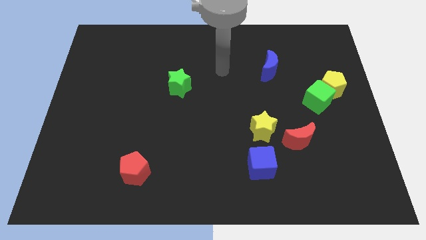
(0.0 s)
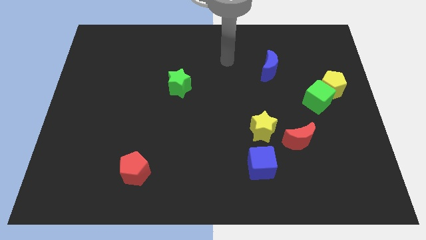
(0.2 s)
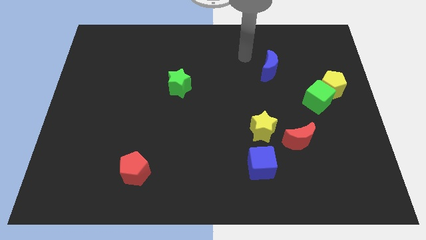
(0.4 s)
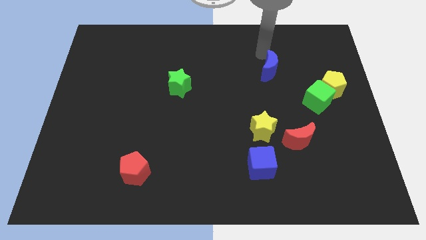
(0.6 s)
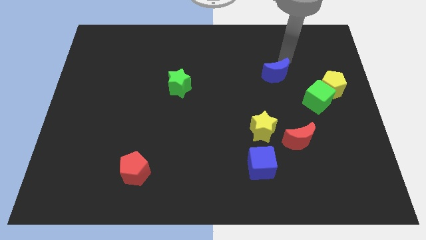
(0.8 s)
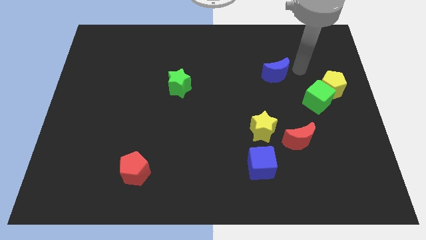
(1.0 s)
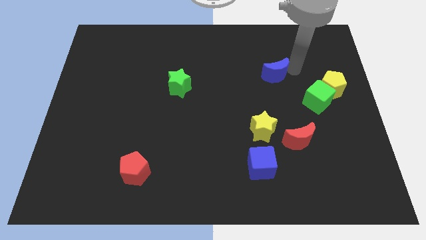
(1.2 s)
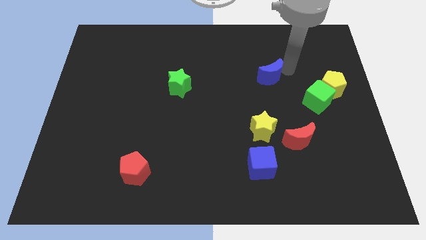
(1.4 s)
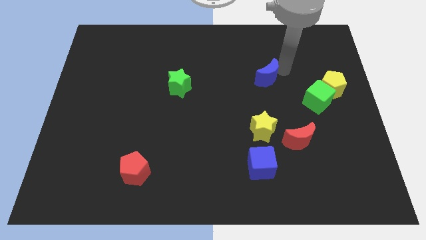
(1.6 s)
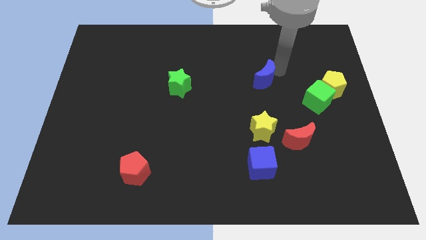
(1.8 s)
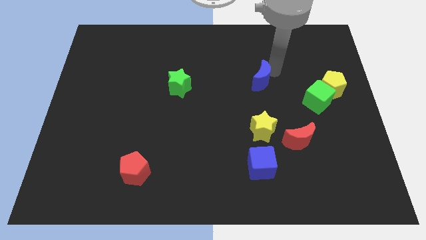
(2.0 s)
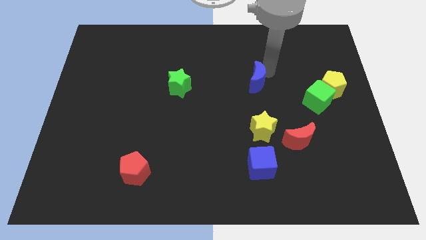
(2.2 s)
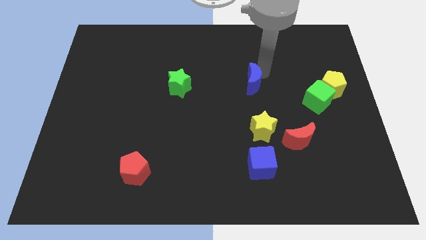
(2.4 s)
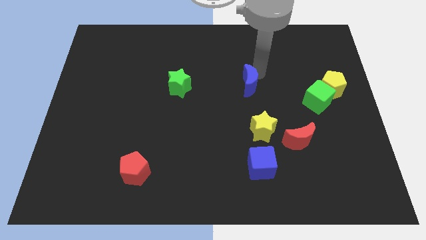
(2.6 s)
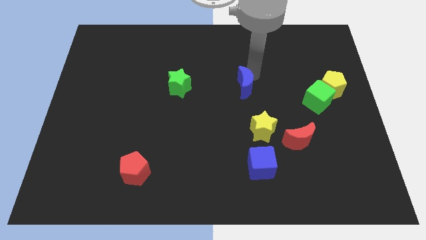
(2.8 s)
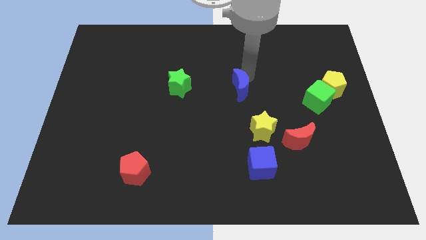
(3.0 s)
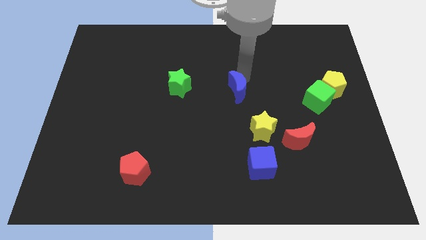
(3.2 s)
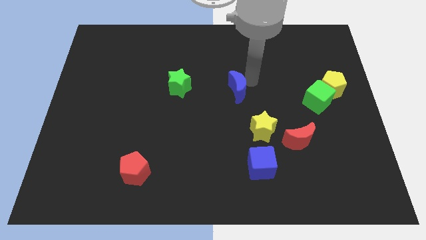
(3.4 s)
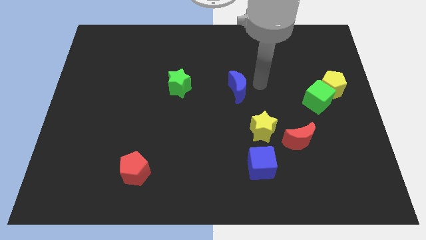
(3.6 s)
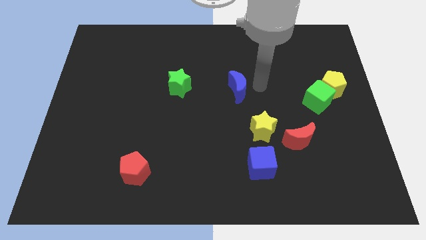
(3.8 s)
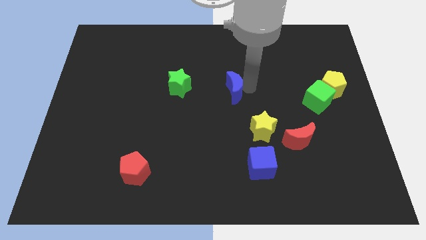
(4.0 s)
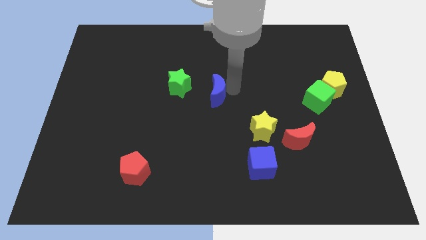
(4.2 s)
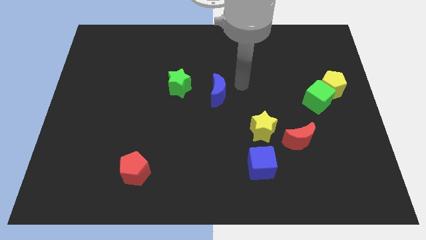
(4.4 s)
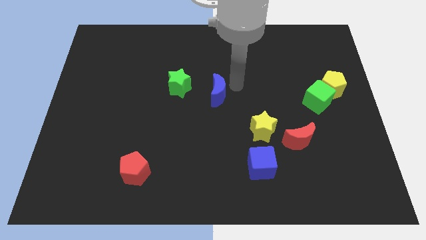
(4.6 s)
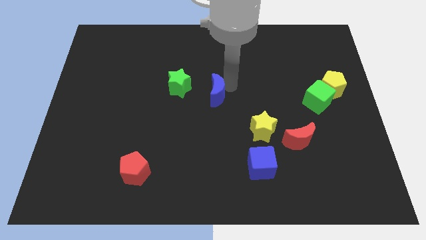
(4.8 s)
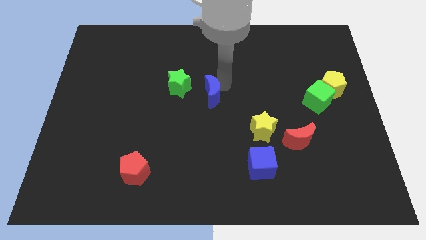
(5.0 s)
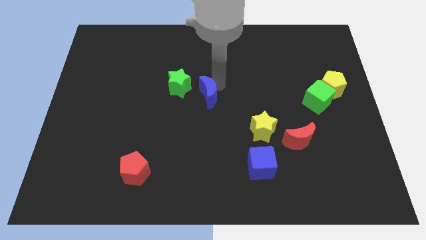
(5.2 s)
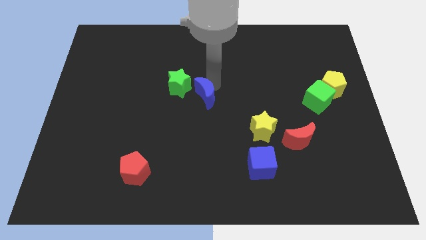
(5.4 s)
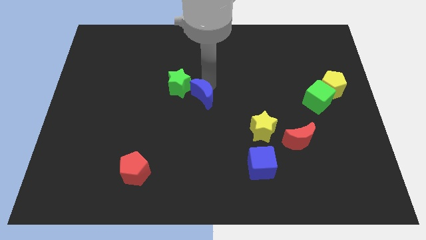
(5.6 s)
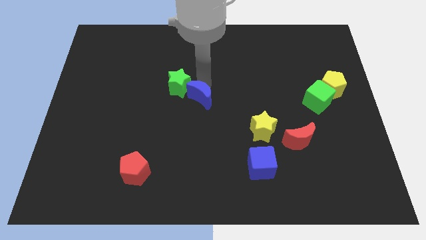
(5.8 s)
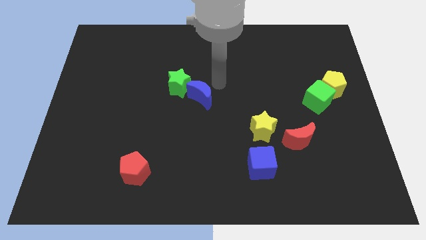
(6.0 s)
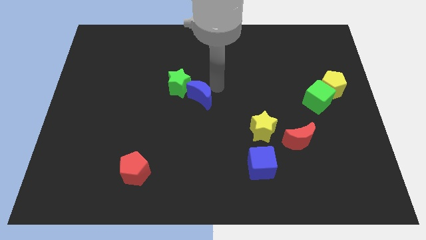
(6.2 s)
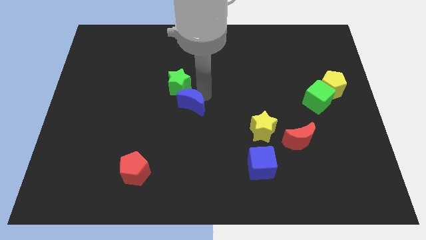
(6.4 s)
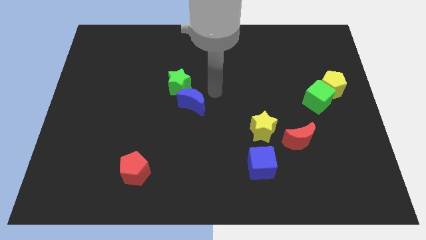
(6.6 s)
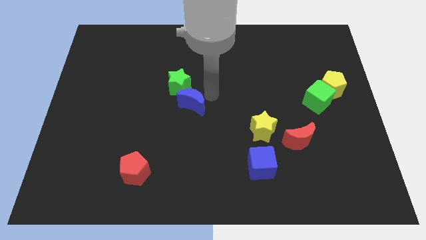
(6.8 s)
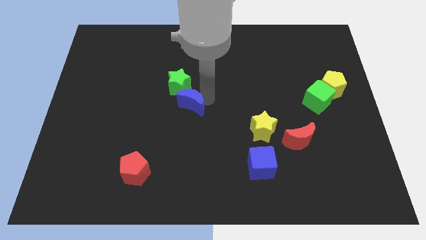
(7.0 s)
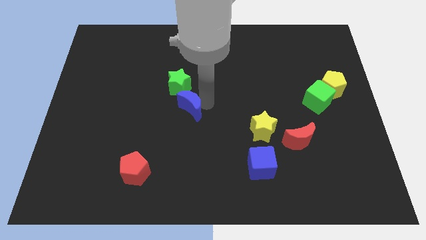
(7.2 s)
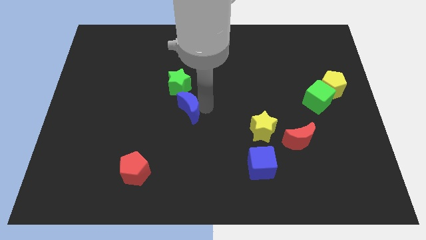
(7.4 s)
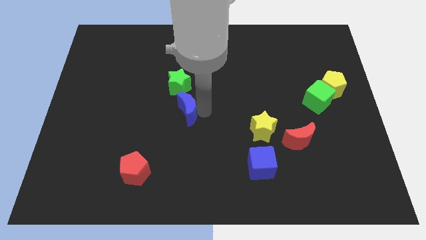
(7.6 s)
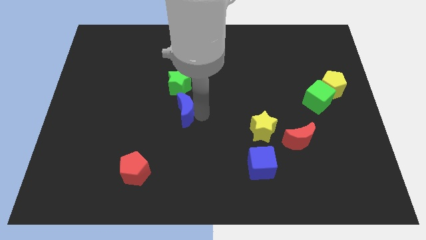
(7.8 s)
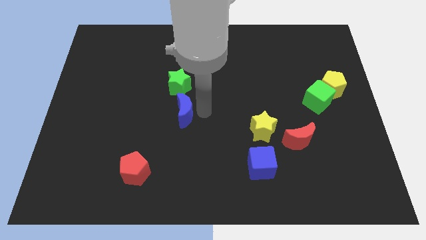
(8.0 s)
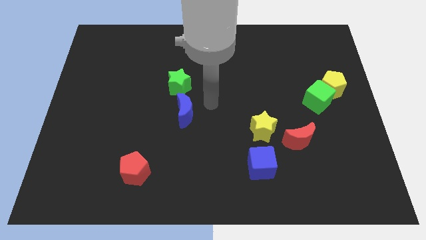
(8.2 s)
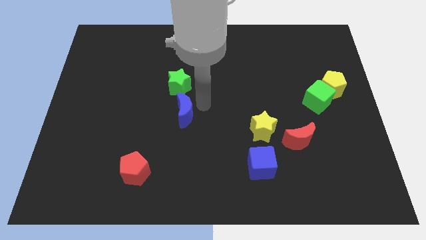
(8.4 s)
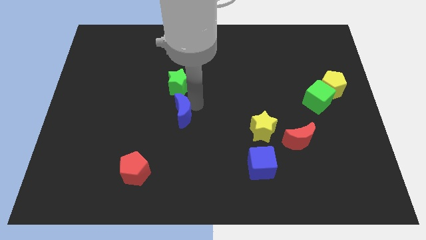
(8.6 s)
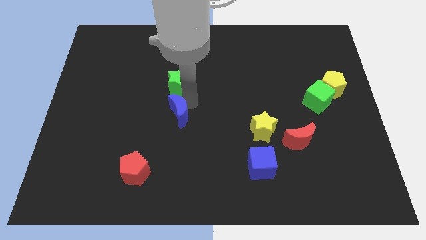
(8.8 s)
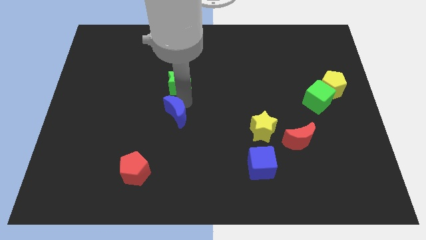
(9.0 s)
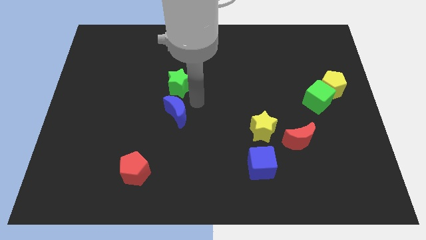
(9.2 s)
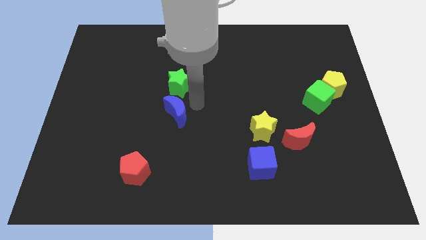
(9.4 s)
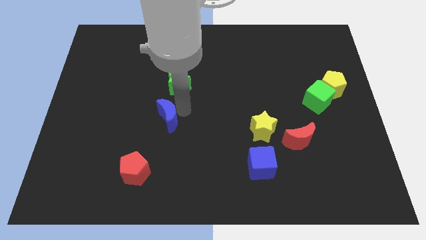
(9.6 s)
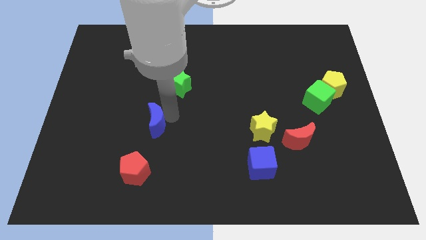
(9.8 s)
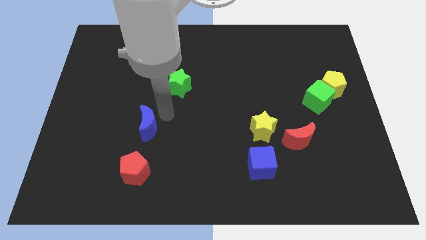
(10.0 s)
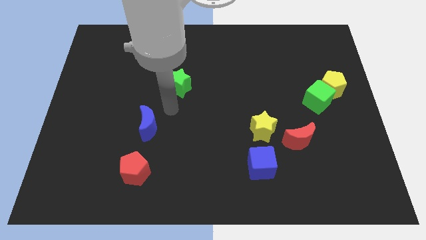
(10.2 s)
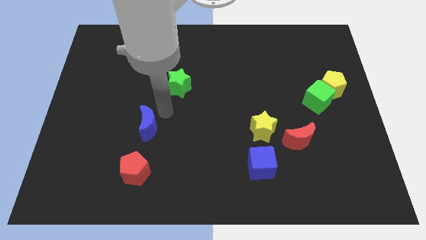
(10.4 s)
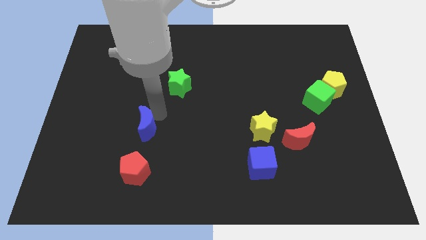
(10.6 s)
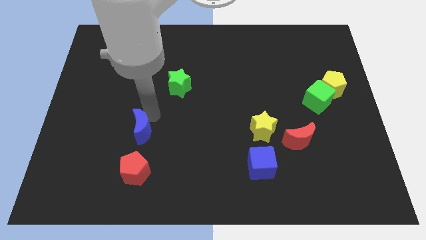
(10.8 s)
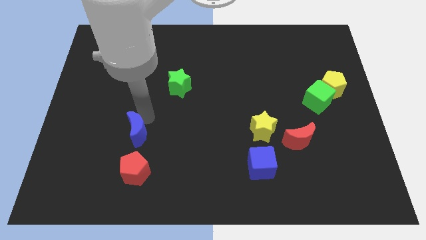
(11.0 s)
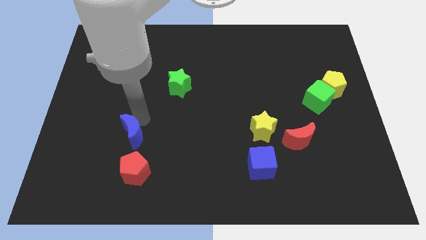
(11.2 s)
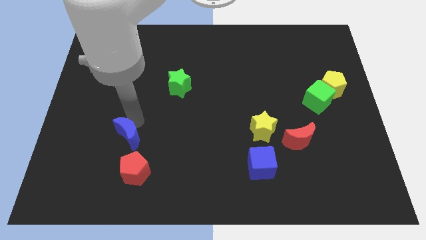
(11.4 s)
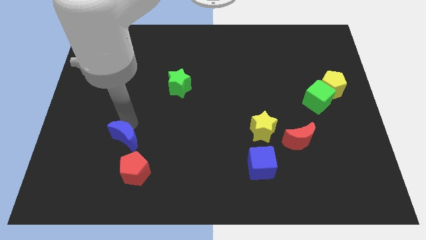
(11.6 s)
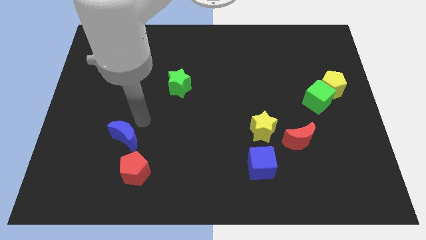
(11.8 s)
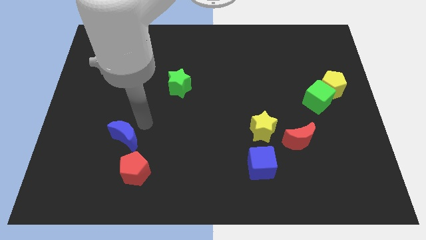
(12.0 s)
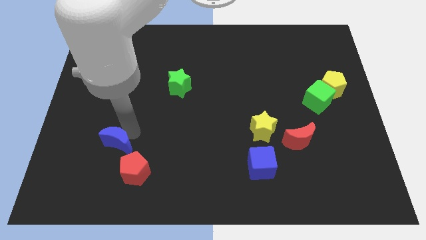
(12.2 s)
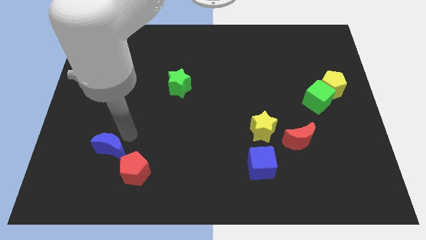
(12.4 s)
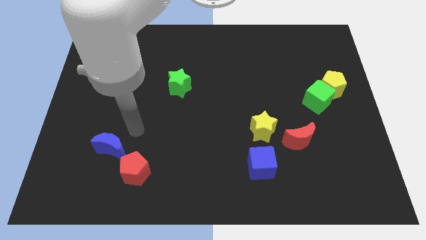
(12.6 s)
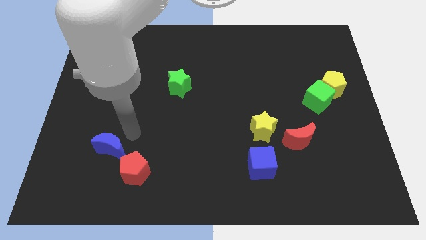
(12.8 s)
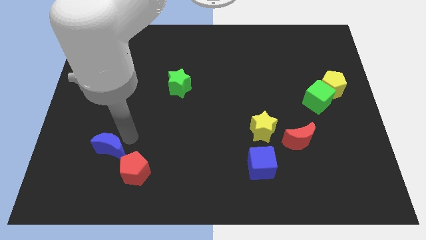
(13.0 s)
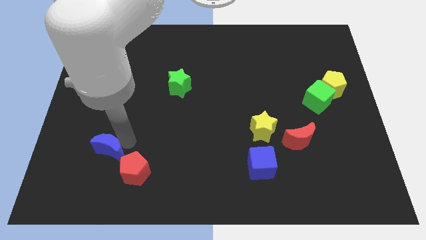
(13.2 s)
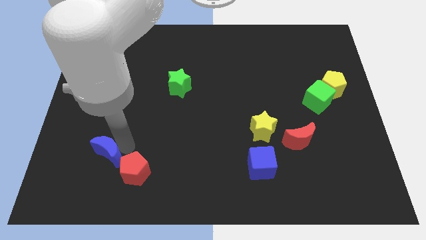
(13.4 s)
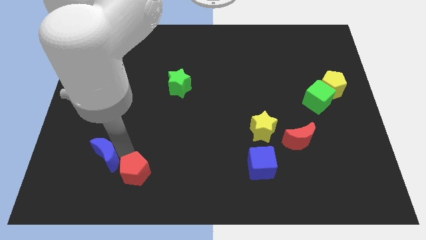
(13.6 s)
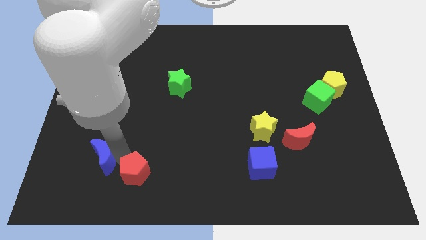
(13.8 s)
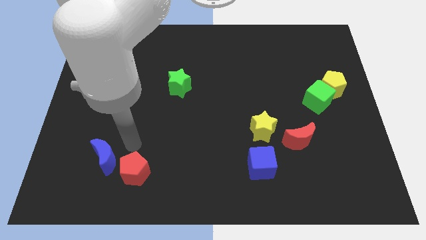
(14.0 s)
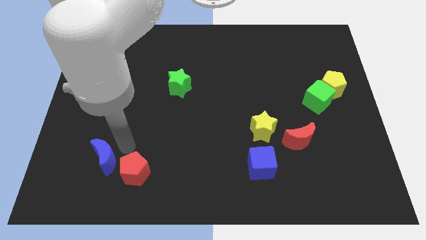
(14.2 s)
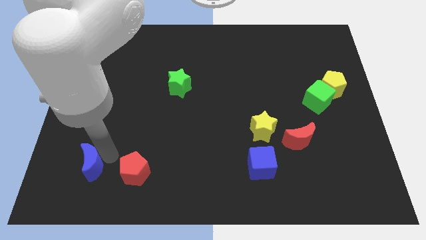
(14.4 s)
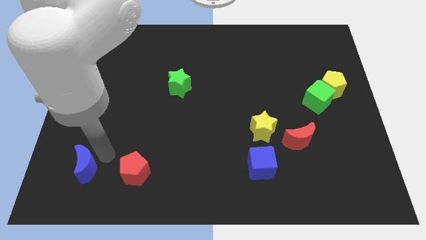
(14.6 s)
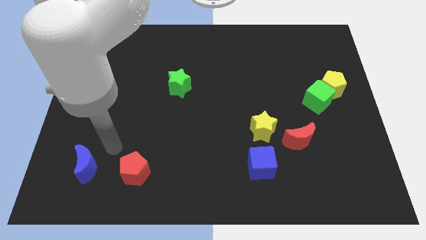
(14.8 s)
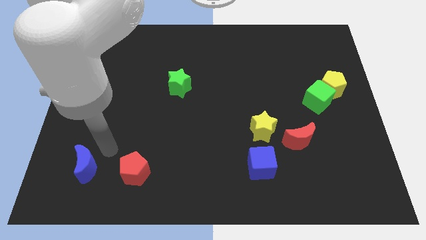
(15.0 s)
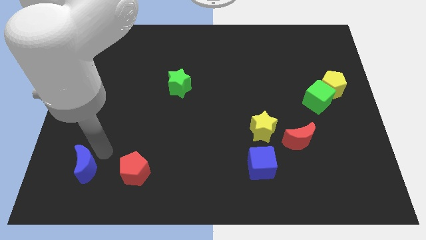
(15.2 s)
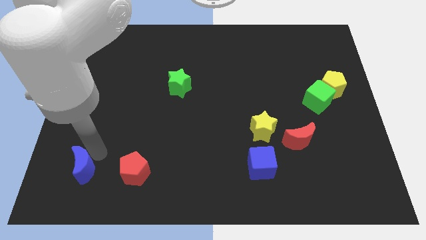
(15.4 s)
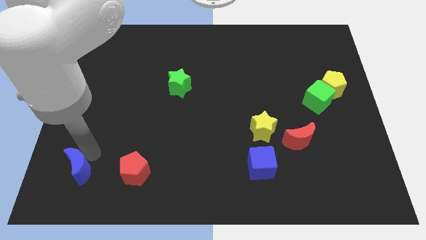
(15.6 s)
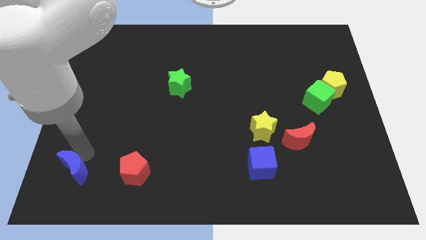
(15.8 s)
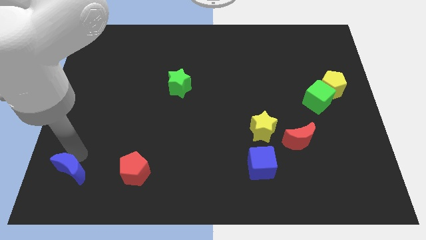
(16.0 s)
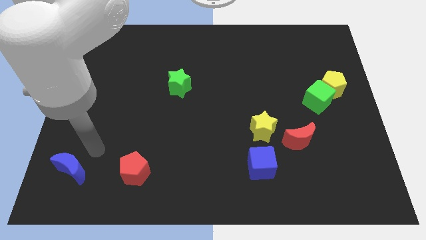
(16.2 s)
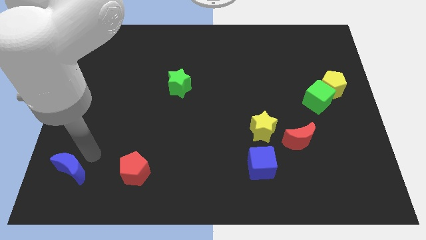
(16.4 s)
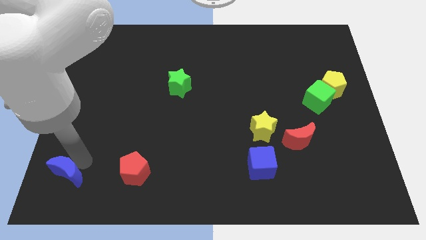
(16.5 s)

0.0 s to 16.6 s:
push the blue moon to the bottom left corner
